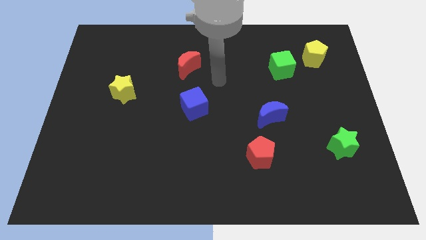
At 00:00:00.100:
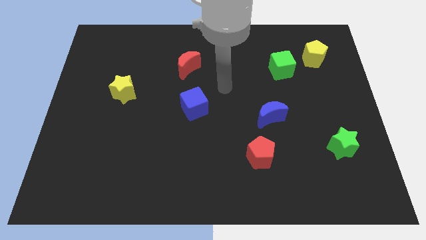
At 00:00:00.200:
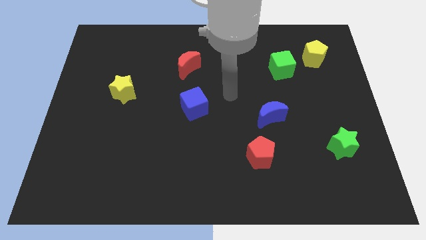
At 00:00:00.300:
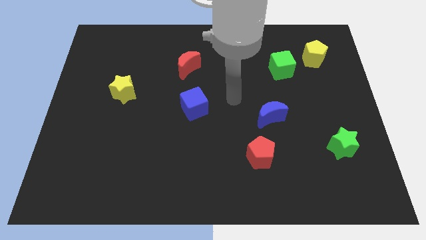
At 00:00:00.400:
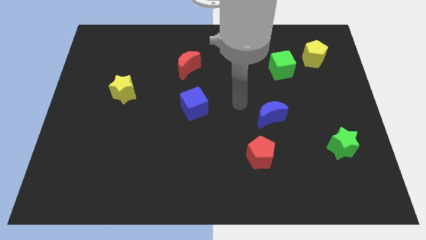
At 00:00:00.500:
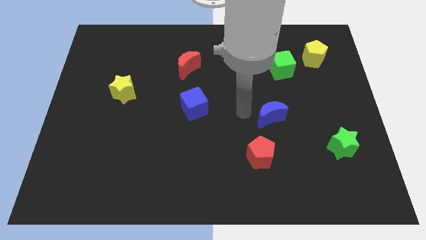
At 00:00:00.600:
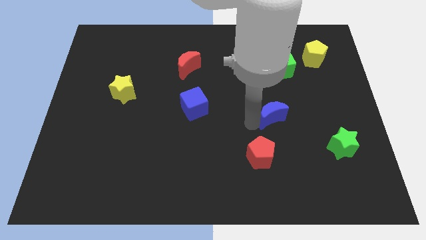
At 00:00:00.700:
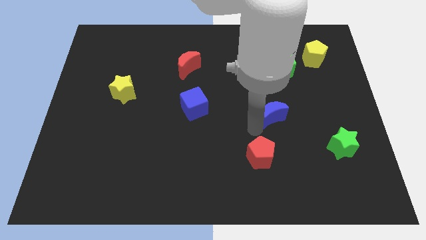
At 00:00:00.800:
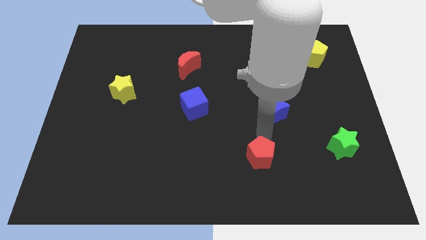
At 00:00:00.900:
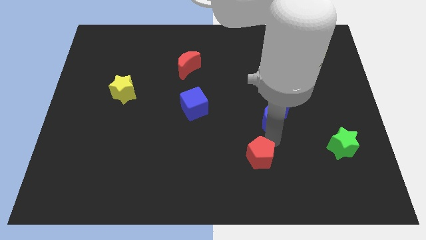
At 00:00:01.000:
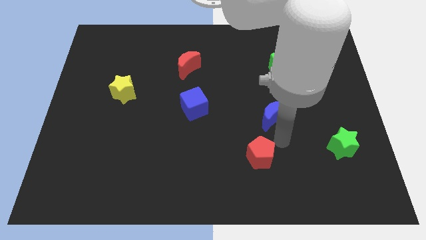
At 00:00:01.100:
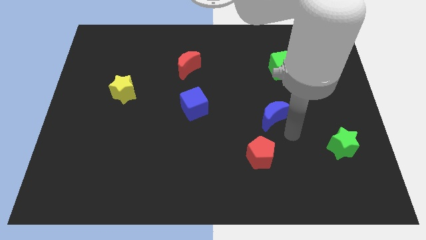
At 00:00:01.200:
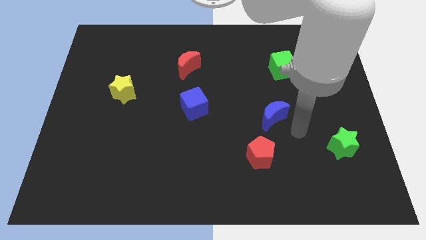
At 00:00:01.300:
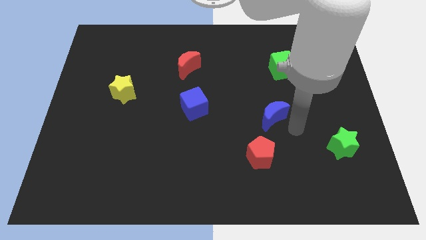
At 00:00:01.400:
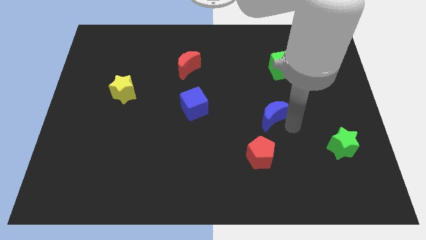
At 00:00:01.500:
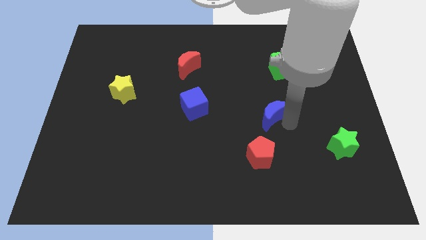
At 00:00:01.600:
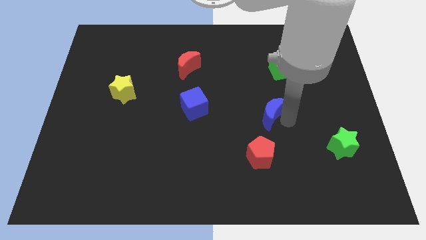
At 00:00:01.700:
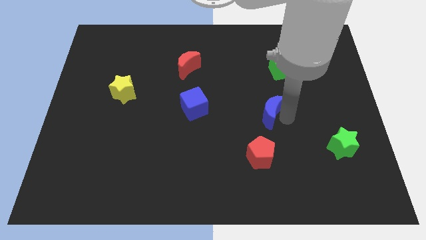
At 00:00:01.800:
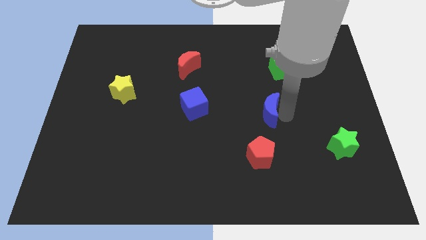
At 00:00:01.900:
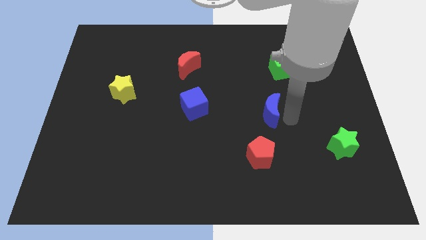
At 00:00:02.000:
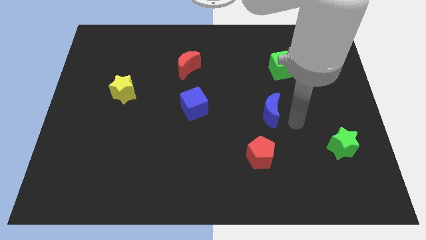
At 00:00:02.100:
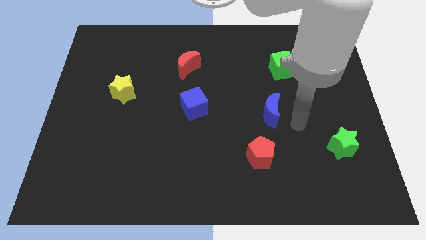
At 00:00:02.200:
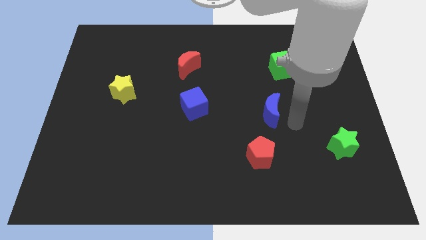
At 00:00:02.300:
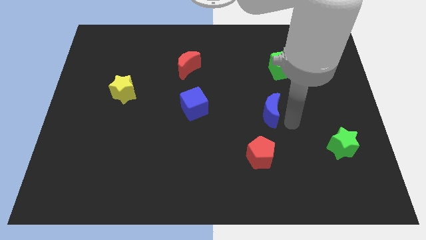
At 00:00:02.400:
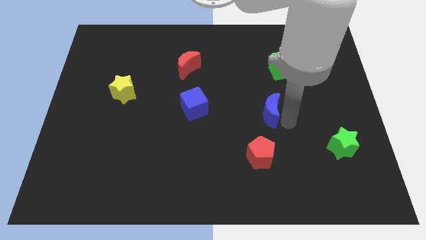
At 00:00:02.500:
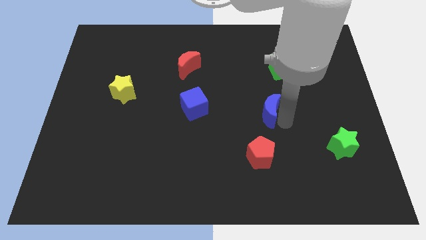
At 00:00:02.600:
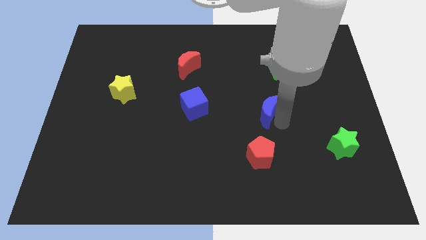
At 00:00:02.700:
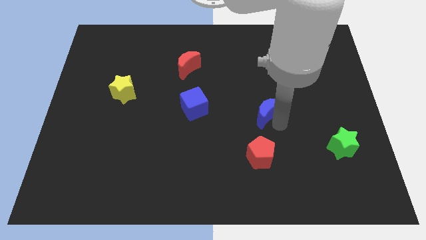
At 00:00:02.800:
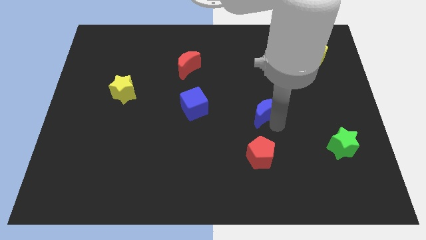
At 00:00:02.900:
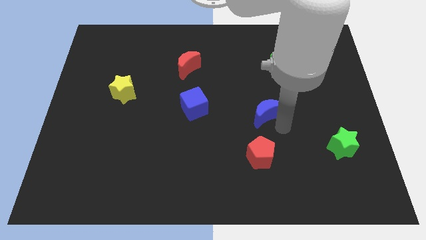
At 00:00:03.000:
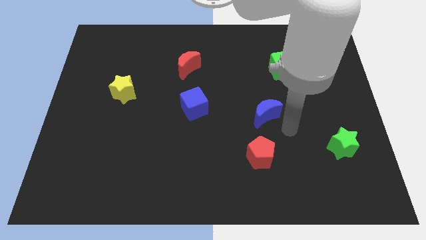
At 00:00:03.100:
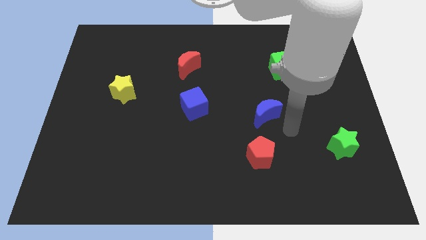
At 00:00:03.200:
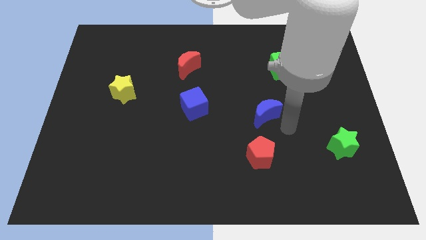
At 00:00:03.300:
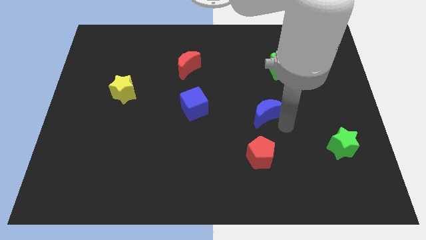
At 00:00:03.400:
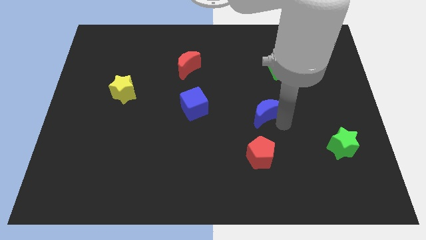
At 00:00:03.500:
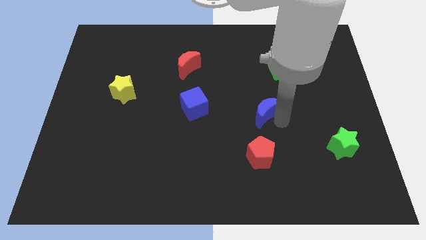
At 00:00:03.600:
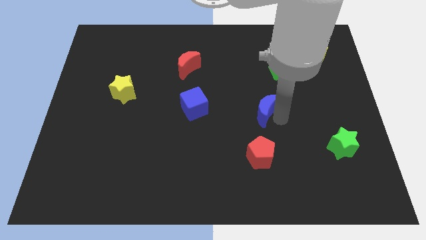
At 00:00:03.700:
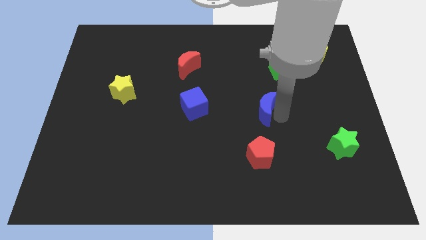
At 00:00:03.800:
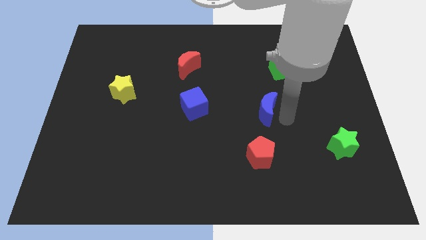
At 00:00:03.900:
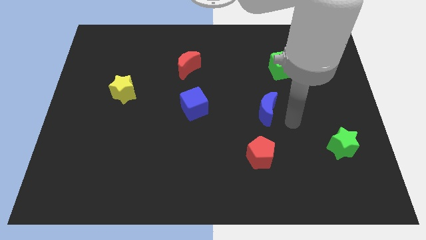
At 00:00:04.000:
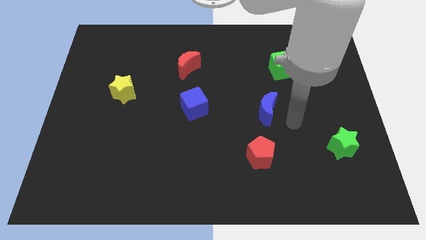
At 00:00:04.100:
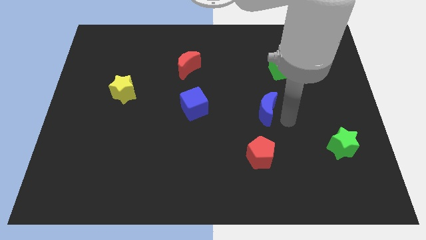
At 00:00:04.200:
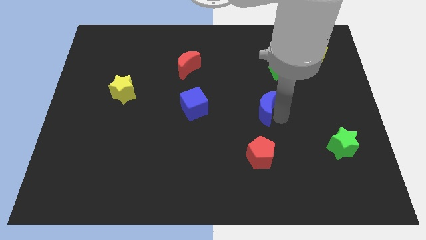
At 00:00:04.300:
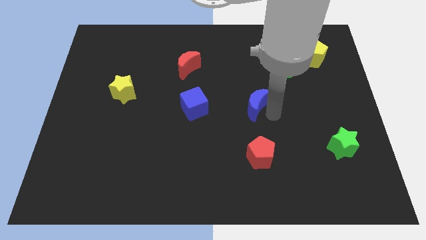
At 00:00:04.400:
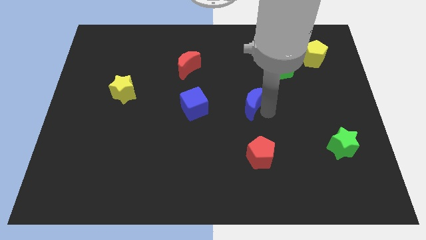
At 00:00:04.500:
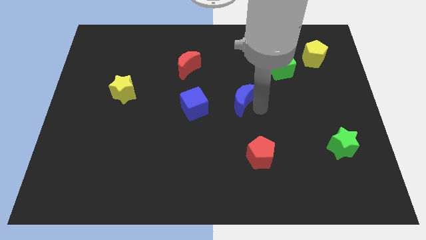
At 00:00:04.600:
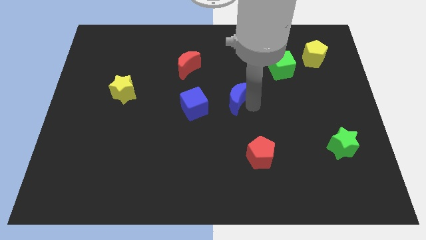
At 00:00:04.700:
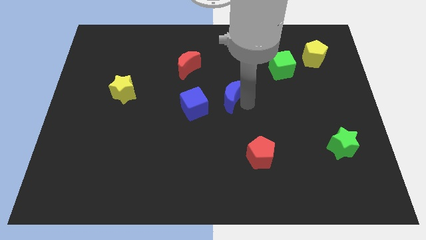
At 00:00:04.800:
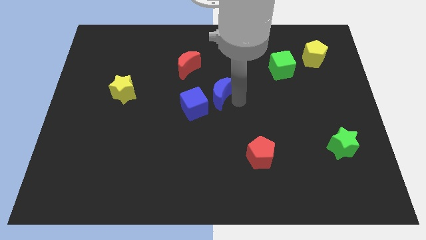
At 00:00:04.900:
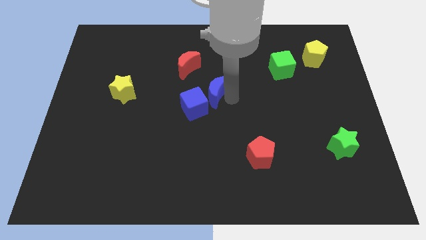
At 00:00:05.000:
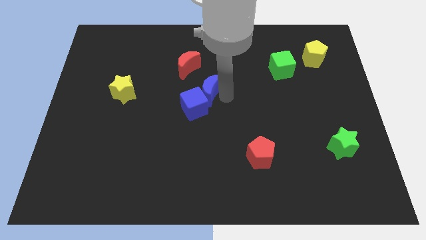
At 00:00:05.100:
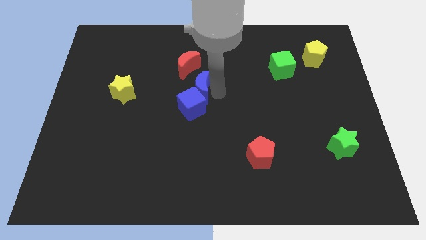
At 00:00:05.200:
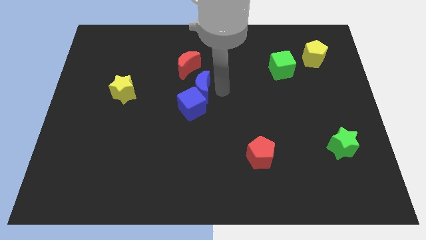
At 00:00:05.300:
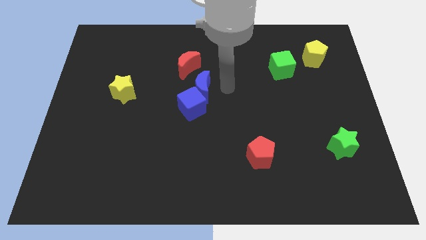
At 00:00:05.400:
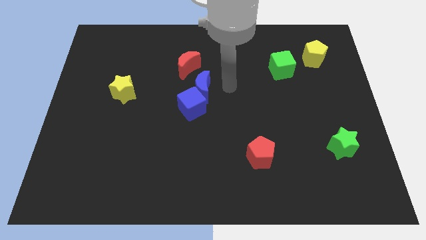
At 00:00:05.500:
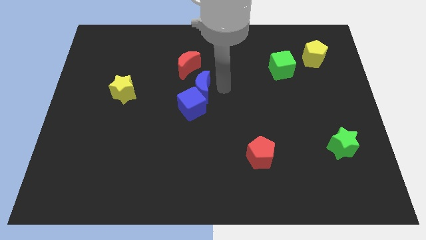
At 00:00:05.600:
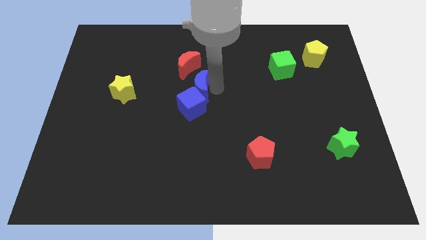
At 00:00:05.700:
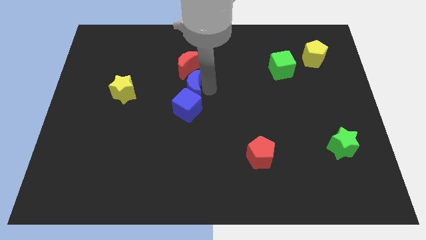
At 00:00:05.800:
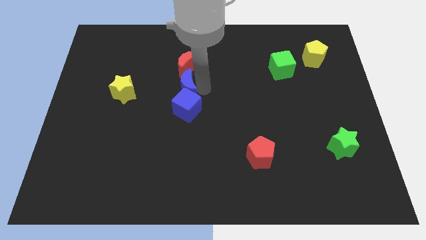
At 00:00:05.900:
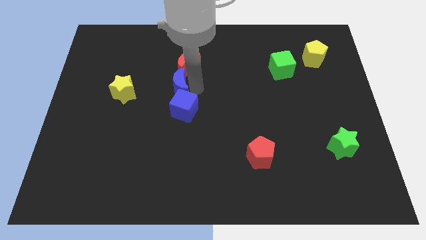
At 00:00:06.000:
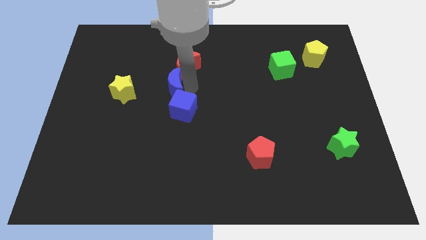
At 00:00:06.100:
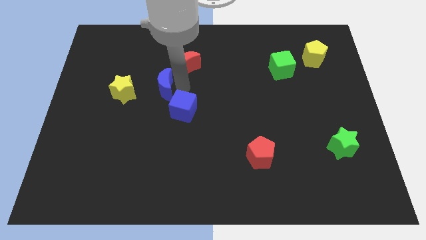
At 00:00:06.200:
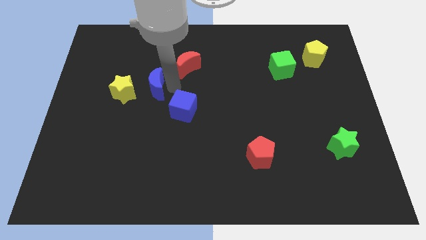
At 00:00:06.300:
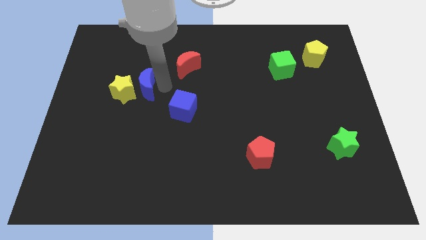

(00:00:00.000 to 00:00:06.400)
push the blue moon to the yellow star
